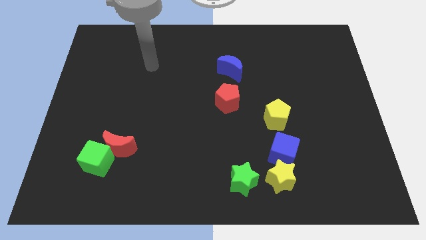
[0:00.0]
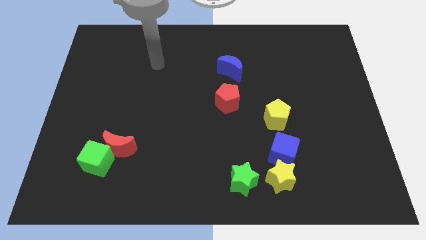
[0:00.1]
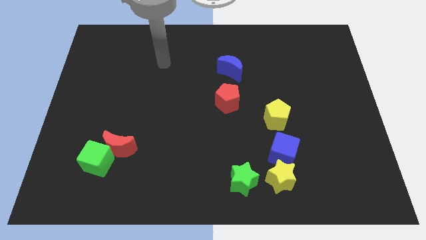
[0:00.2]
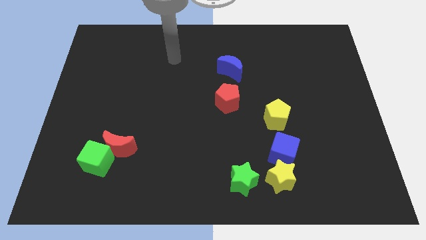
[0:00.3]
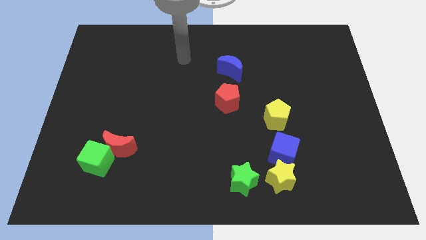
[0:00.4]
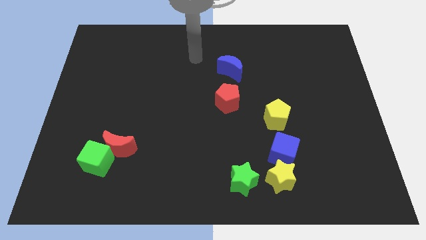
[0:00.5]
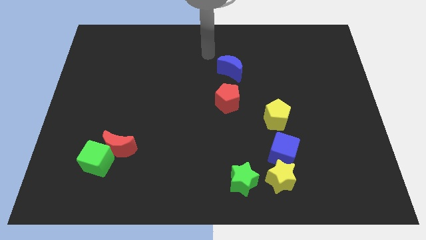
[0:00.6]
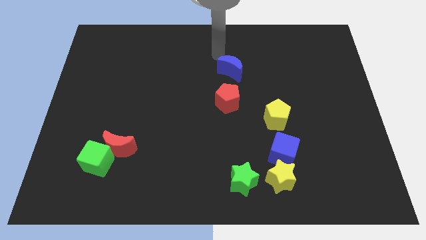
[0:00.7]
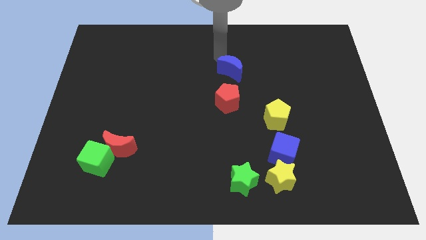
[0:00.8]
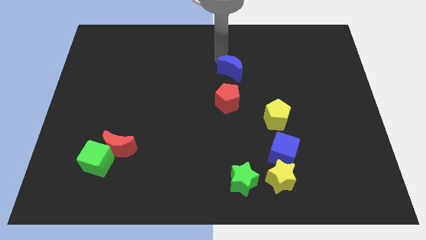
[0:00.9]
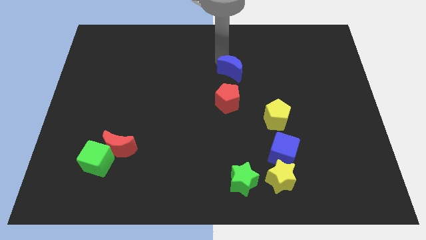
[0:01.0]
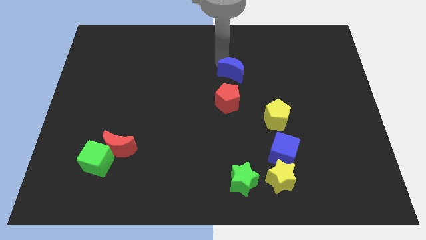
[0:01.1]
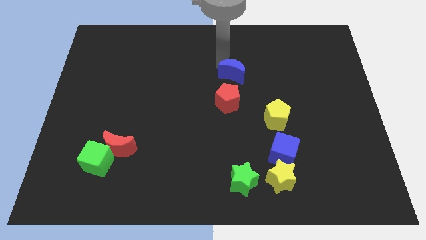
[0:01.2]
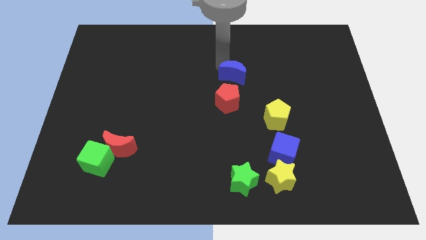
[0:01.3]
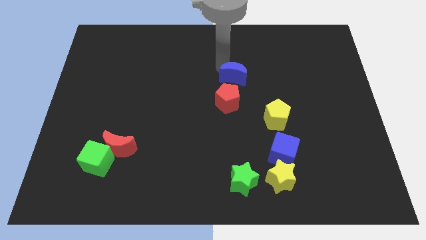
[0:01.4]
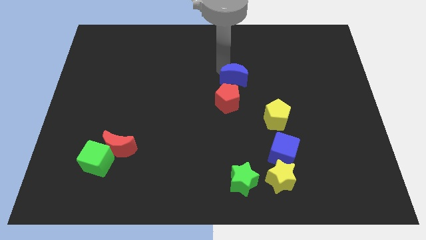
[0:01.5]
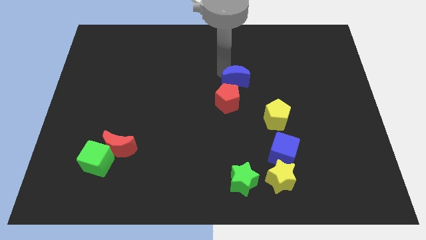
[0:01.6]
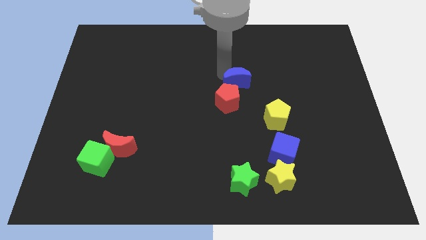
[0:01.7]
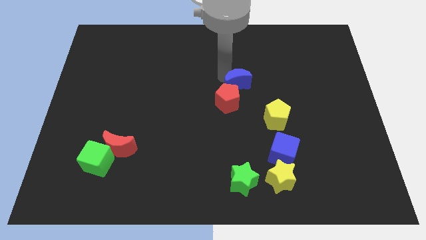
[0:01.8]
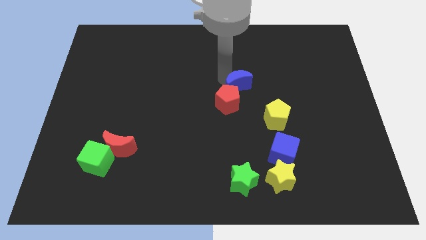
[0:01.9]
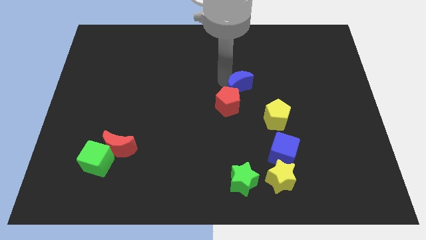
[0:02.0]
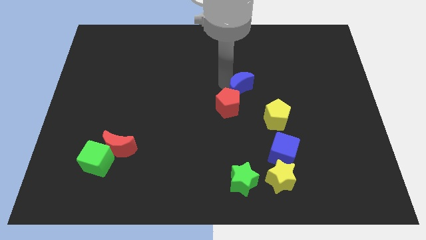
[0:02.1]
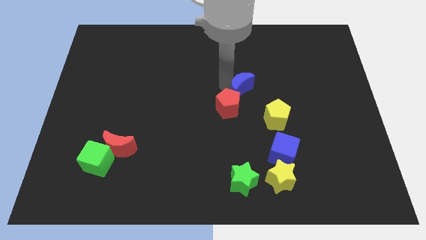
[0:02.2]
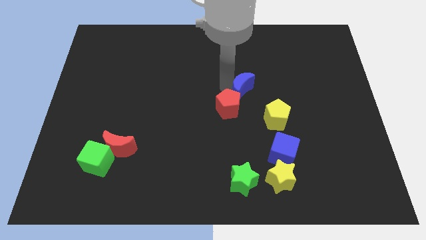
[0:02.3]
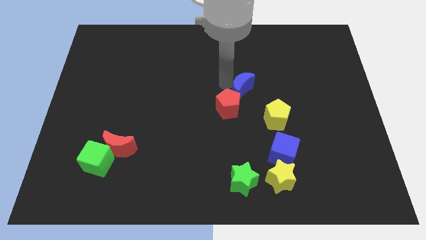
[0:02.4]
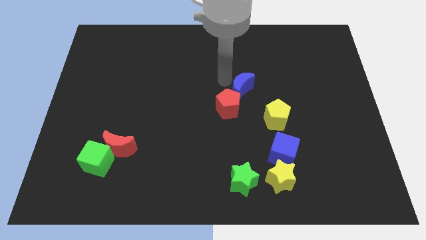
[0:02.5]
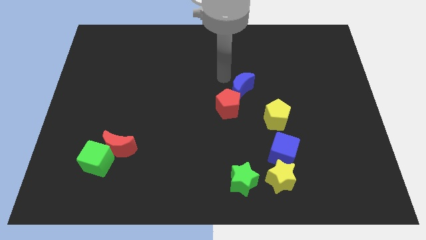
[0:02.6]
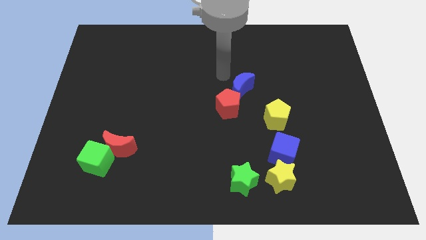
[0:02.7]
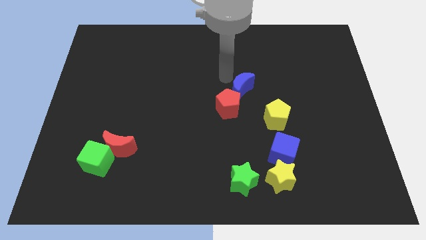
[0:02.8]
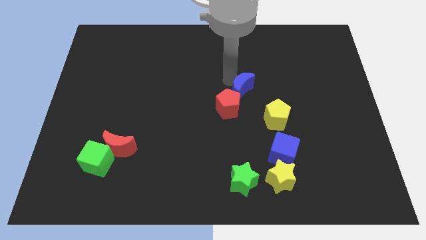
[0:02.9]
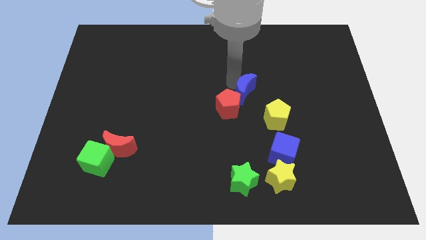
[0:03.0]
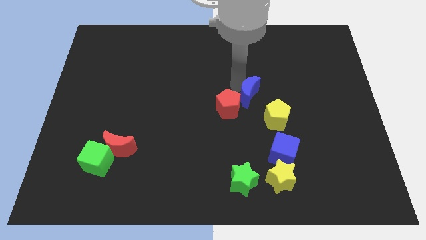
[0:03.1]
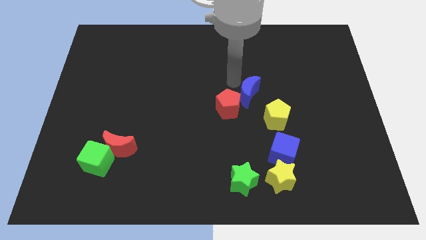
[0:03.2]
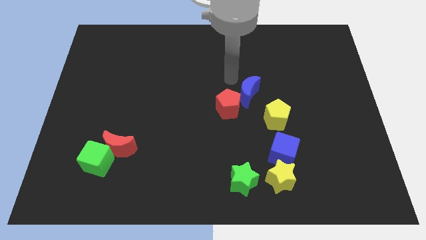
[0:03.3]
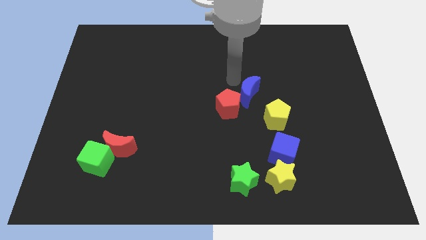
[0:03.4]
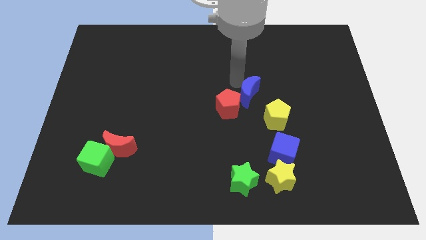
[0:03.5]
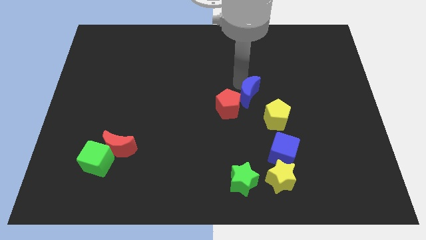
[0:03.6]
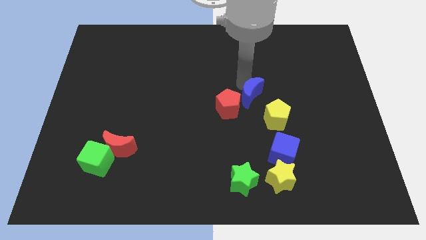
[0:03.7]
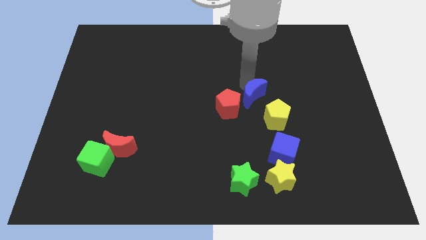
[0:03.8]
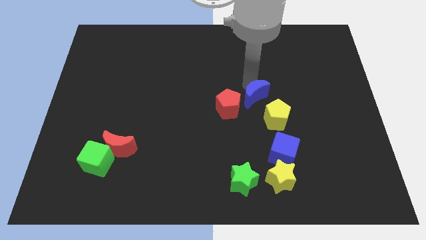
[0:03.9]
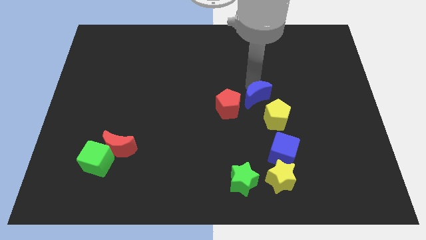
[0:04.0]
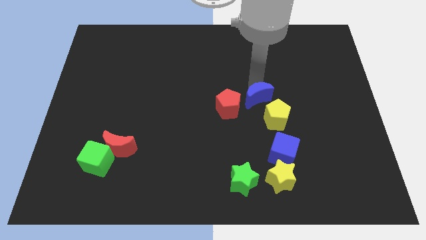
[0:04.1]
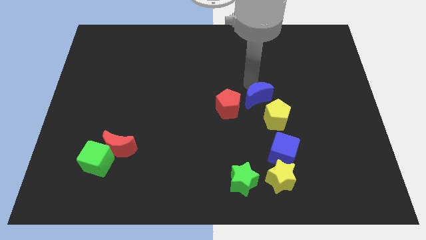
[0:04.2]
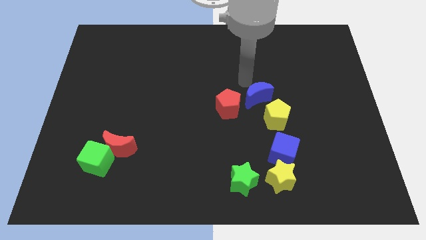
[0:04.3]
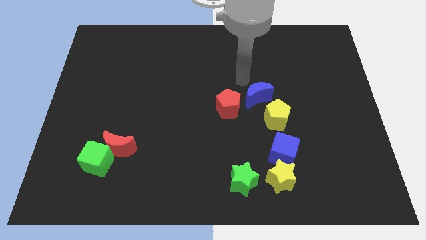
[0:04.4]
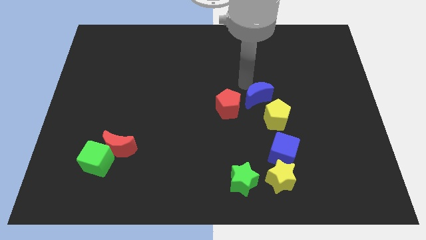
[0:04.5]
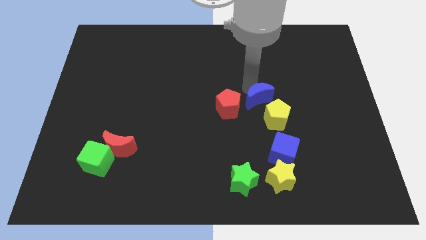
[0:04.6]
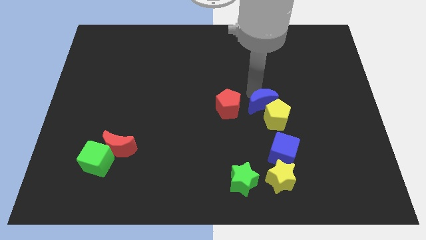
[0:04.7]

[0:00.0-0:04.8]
move the blue moon next to the yellow pentagon

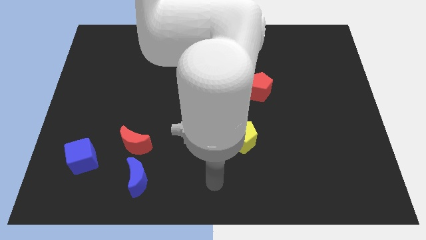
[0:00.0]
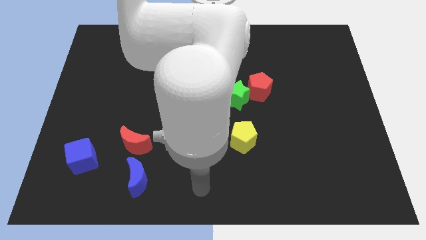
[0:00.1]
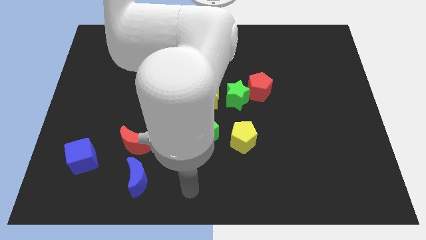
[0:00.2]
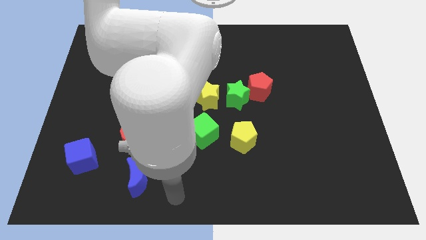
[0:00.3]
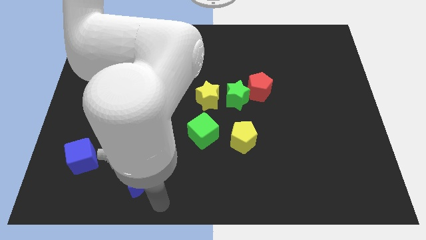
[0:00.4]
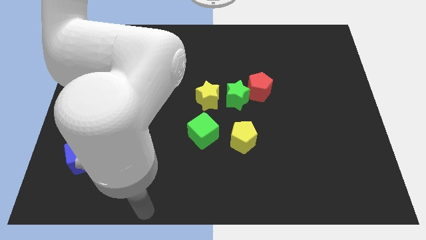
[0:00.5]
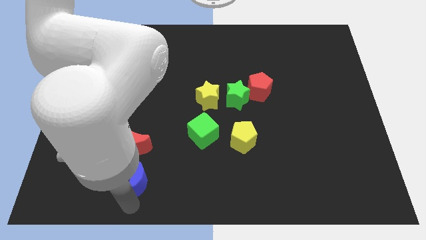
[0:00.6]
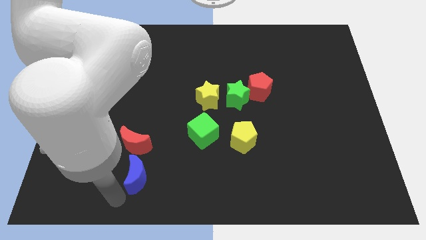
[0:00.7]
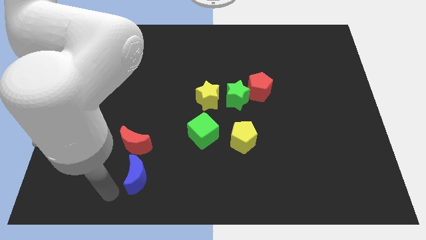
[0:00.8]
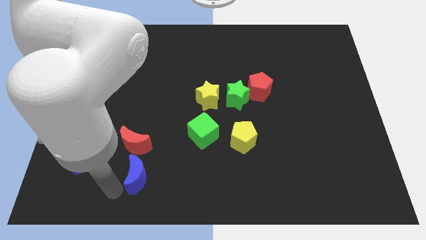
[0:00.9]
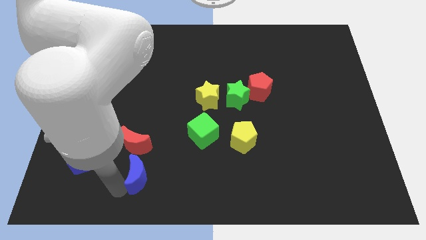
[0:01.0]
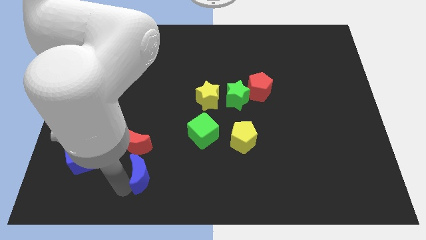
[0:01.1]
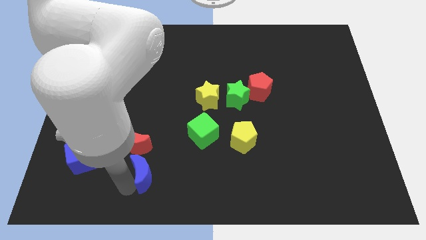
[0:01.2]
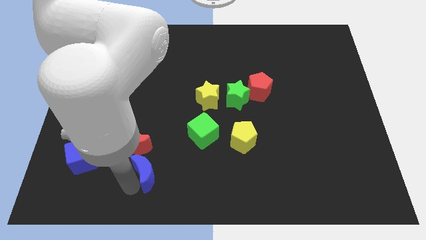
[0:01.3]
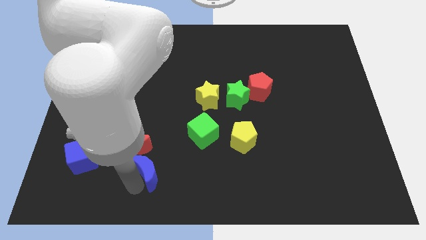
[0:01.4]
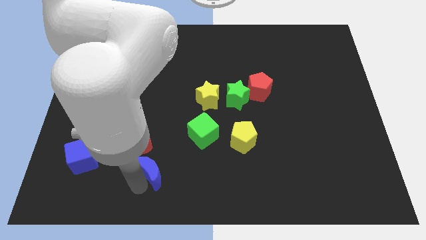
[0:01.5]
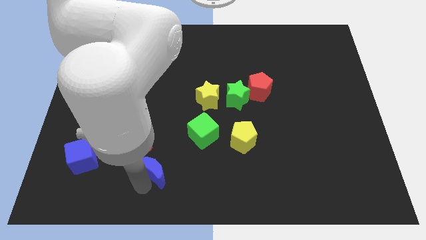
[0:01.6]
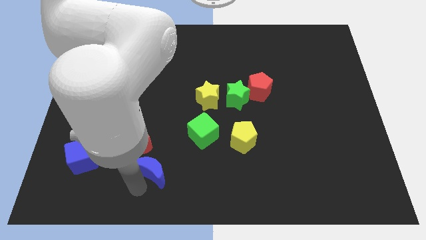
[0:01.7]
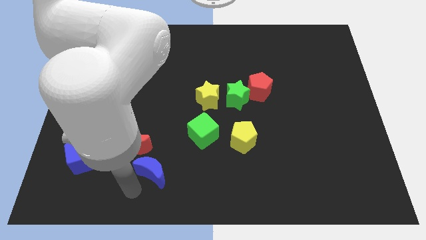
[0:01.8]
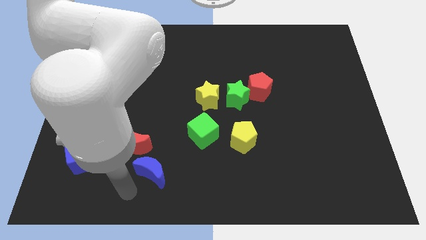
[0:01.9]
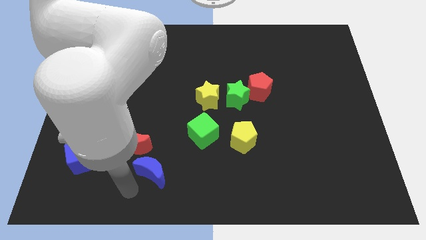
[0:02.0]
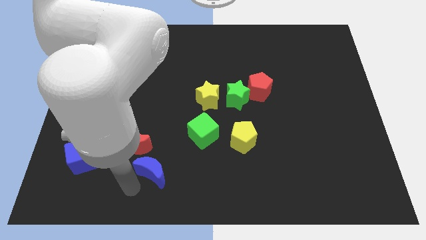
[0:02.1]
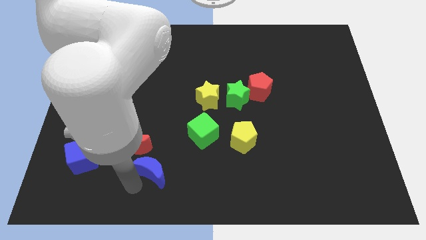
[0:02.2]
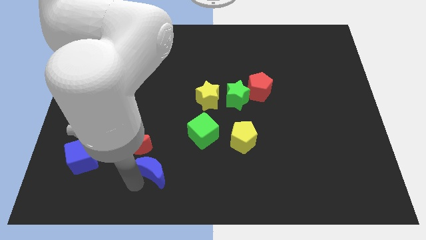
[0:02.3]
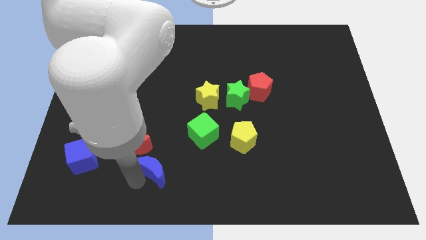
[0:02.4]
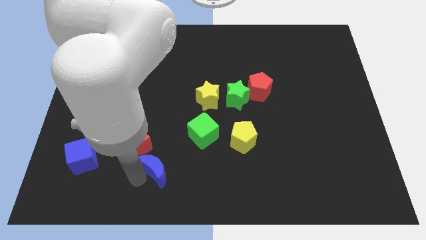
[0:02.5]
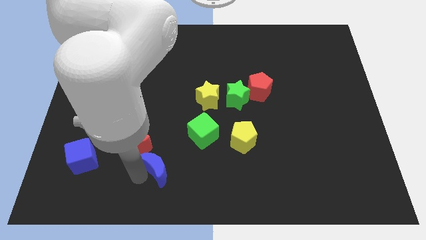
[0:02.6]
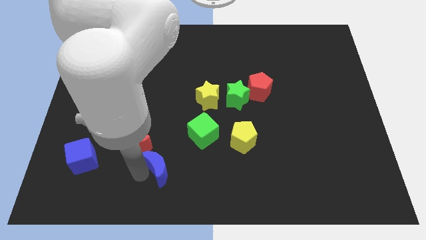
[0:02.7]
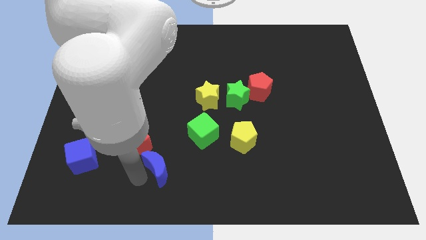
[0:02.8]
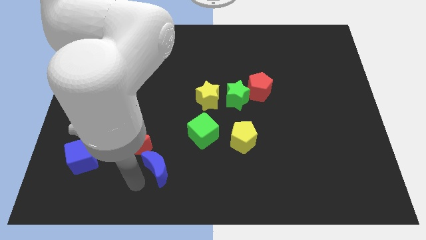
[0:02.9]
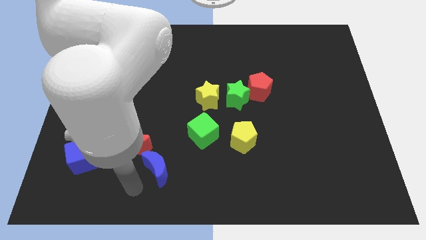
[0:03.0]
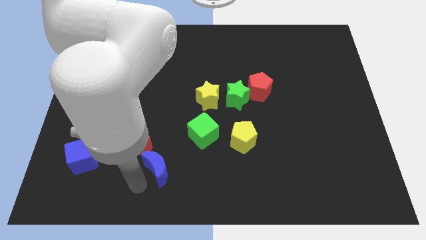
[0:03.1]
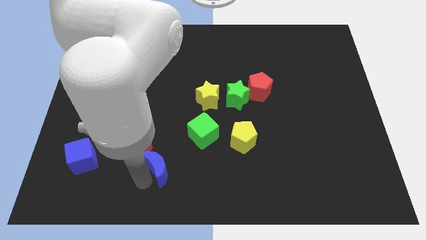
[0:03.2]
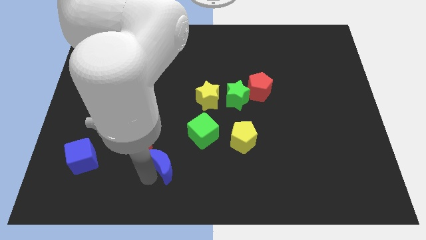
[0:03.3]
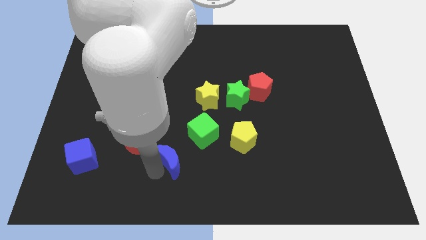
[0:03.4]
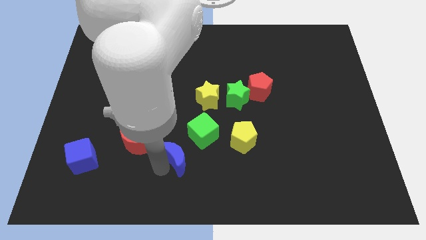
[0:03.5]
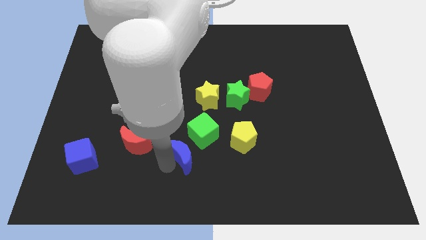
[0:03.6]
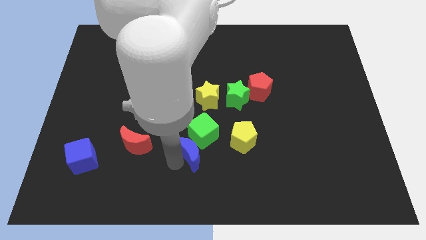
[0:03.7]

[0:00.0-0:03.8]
put the blue moon towards the green cube
